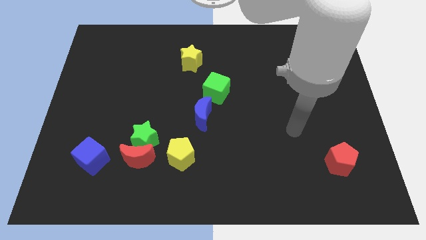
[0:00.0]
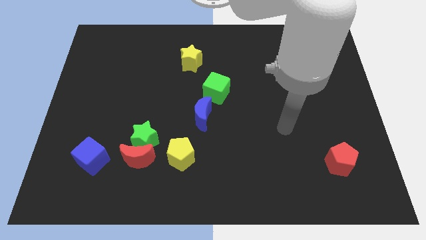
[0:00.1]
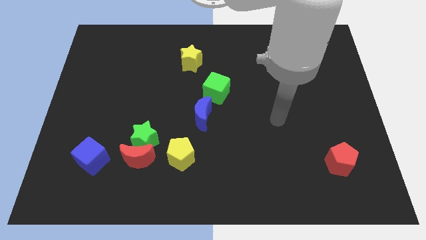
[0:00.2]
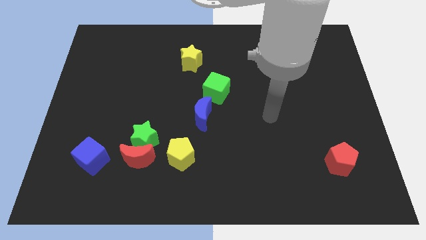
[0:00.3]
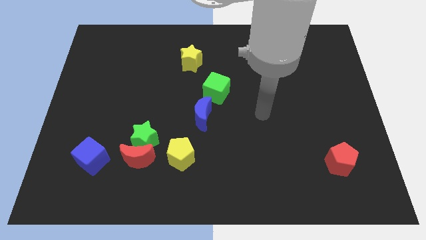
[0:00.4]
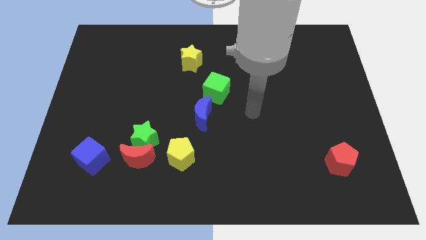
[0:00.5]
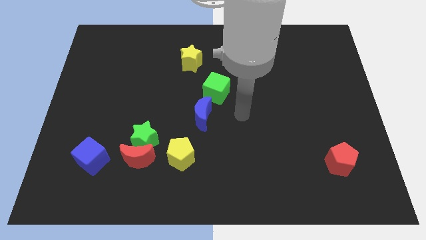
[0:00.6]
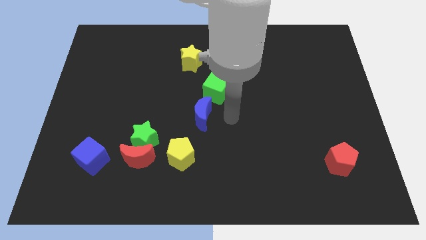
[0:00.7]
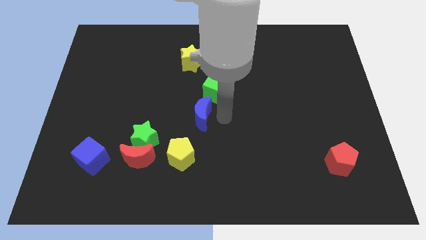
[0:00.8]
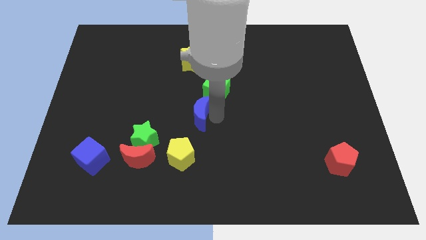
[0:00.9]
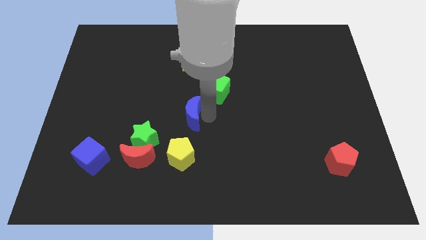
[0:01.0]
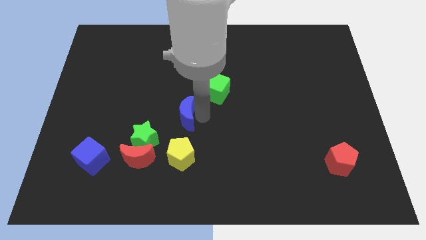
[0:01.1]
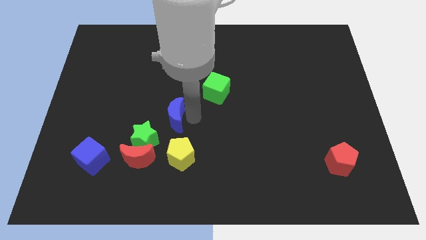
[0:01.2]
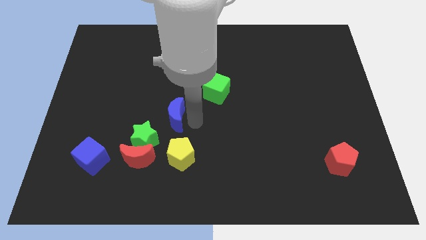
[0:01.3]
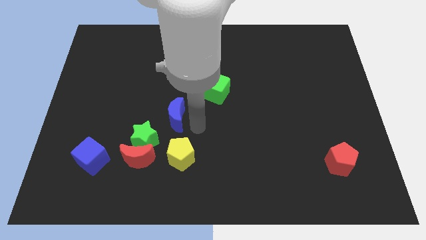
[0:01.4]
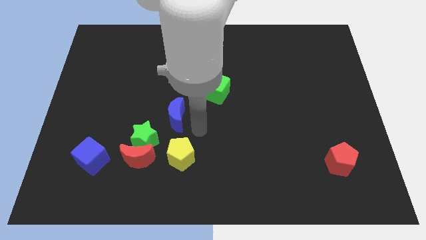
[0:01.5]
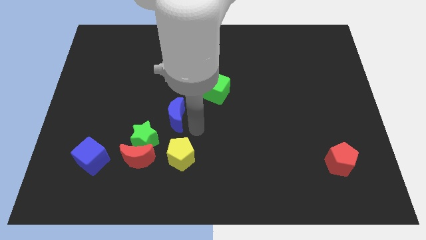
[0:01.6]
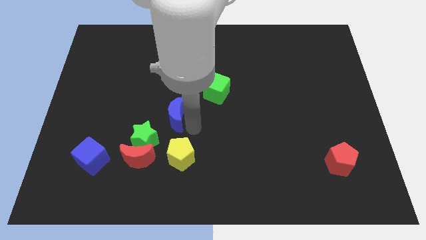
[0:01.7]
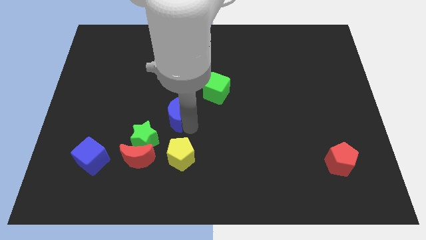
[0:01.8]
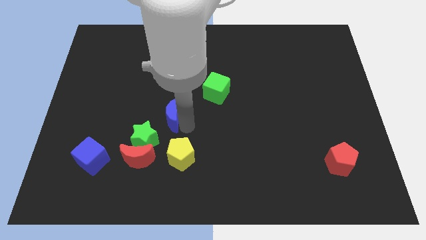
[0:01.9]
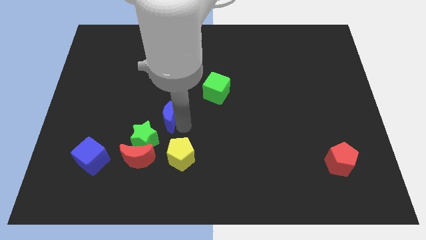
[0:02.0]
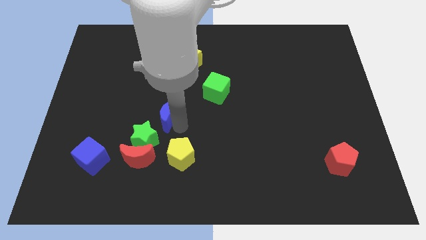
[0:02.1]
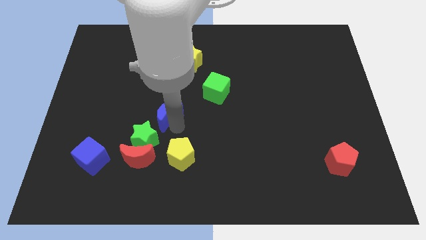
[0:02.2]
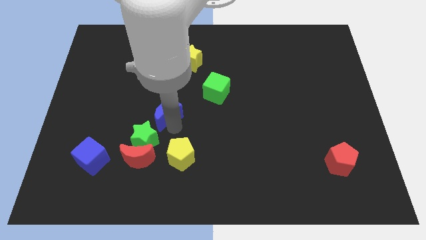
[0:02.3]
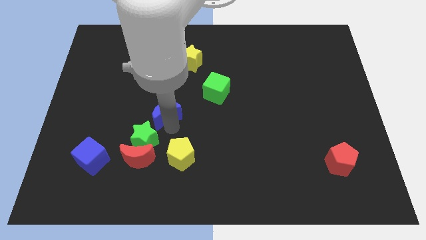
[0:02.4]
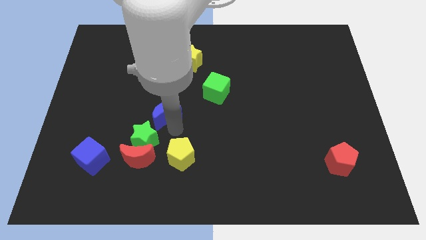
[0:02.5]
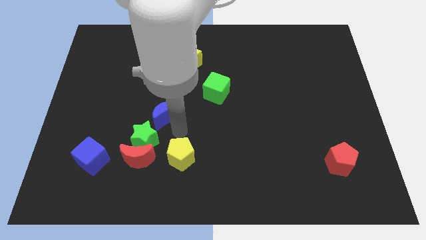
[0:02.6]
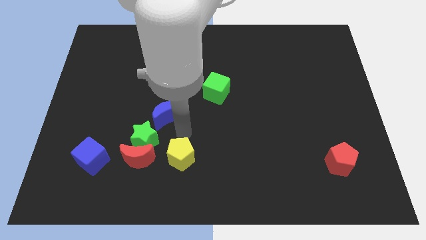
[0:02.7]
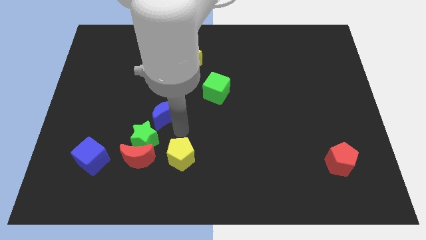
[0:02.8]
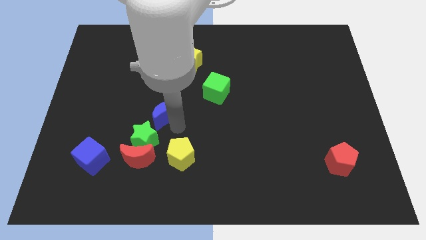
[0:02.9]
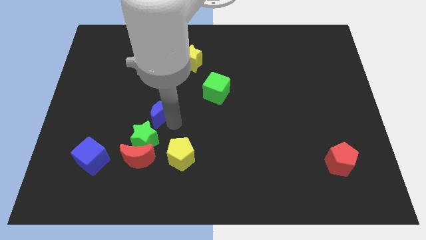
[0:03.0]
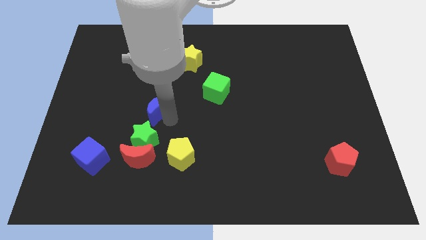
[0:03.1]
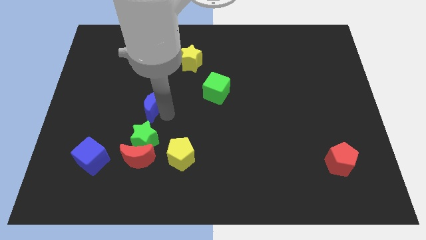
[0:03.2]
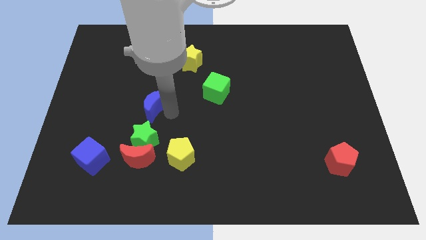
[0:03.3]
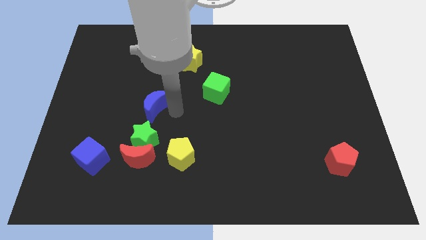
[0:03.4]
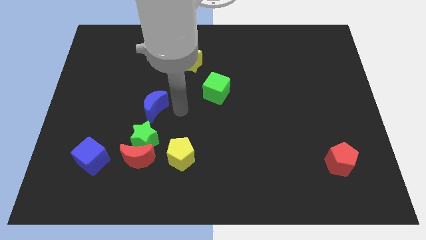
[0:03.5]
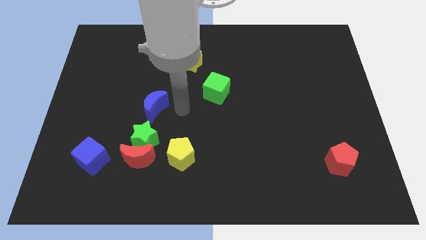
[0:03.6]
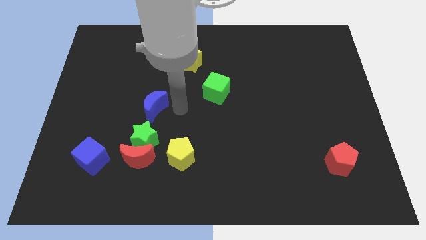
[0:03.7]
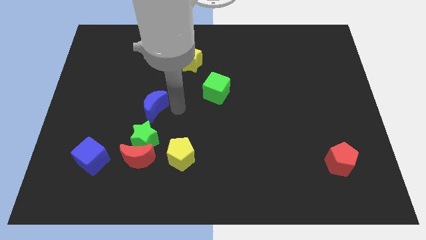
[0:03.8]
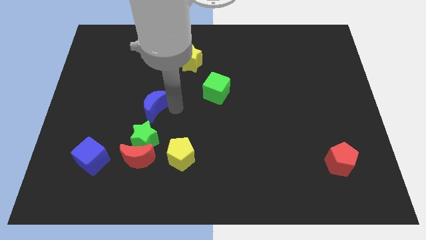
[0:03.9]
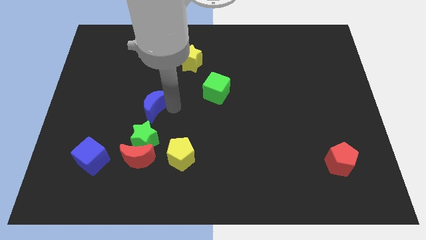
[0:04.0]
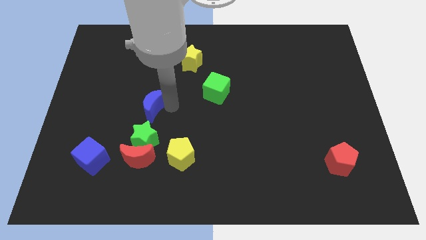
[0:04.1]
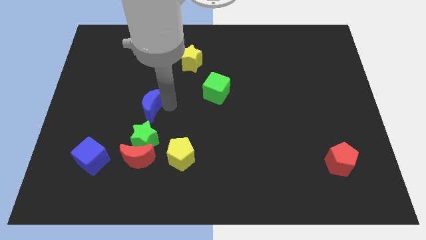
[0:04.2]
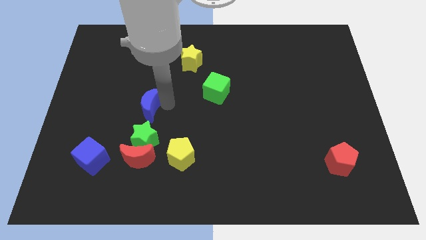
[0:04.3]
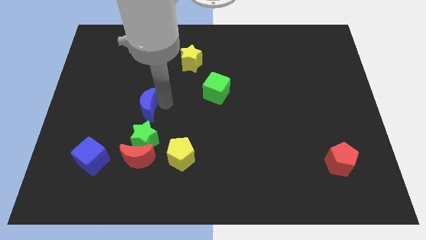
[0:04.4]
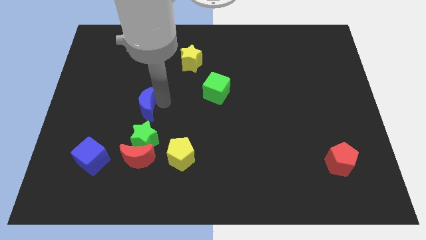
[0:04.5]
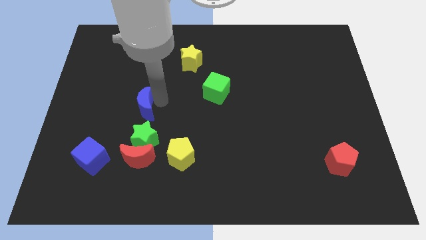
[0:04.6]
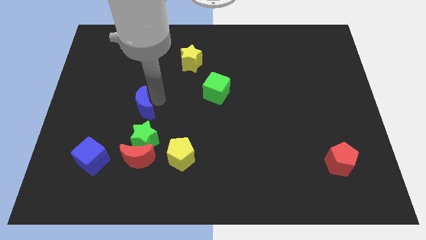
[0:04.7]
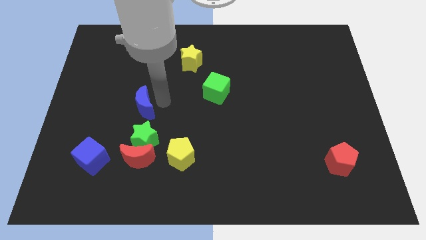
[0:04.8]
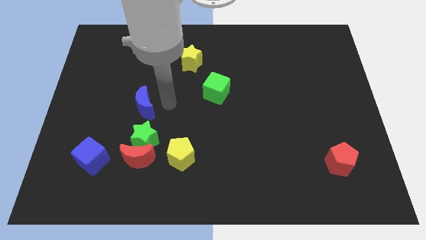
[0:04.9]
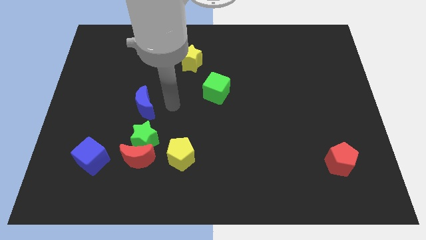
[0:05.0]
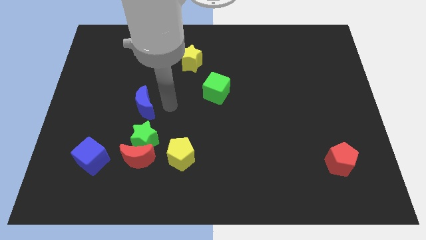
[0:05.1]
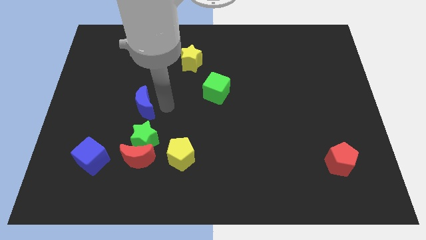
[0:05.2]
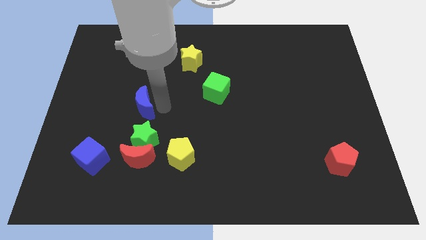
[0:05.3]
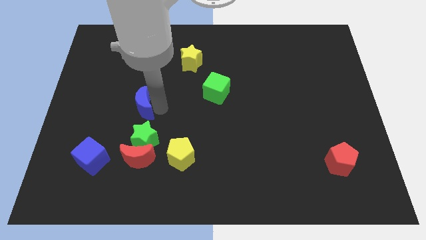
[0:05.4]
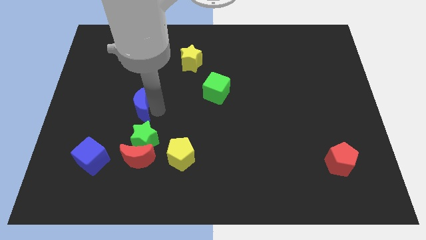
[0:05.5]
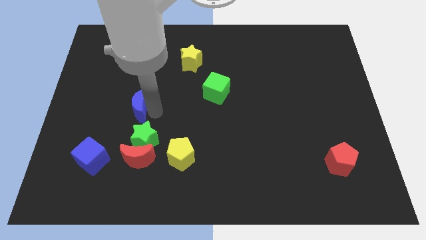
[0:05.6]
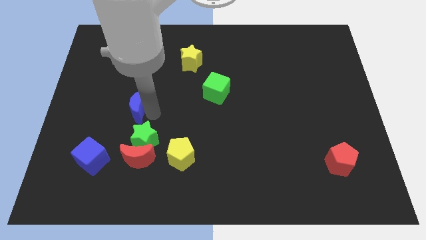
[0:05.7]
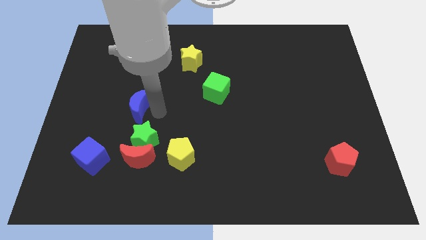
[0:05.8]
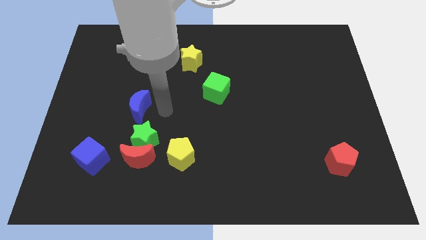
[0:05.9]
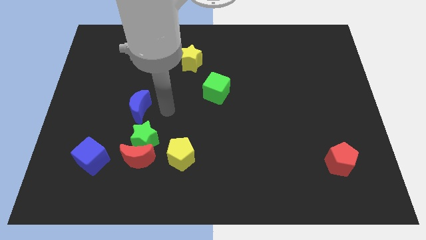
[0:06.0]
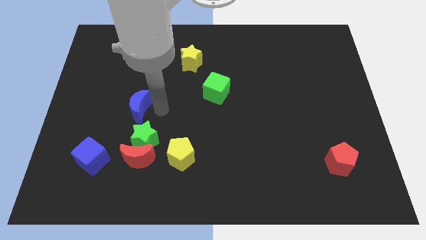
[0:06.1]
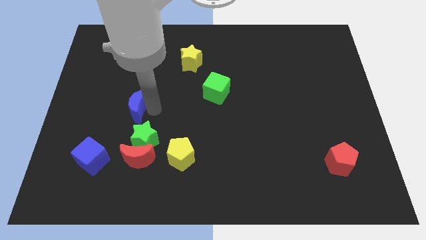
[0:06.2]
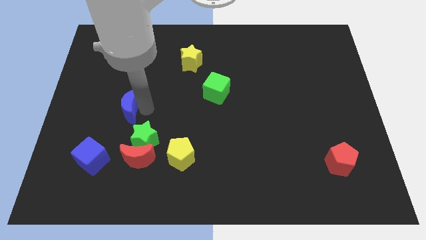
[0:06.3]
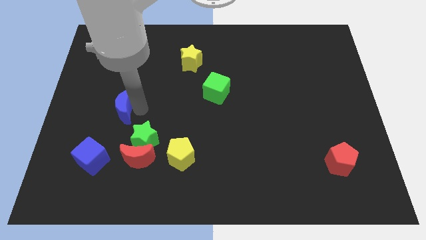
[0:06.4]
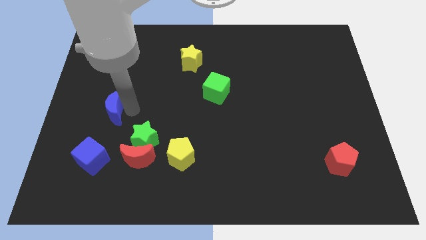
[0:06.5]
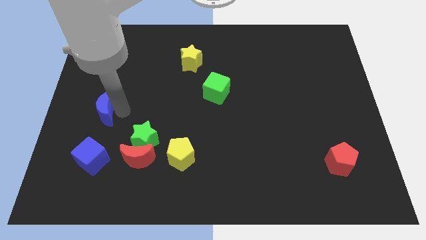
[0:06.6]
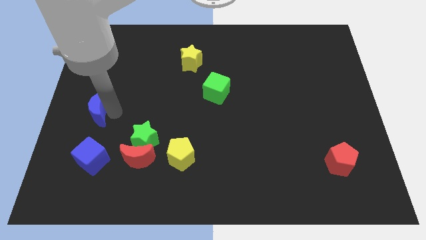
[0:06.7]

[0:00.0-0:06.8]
push the blue moon to the left side of the board
